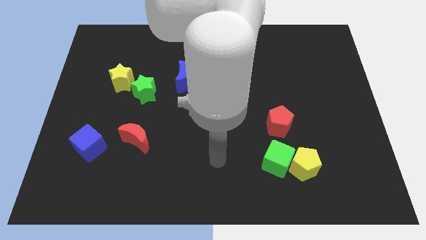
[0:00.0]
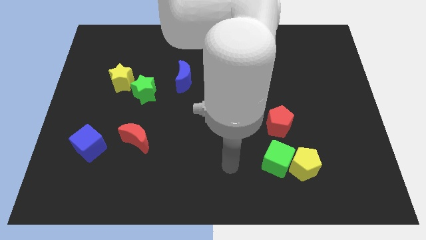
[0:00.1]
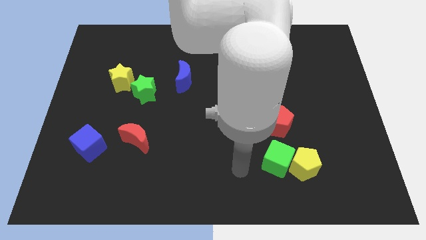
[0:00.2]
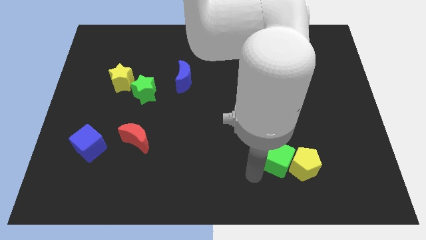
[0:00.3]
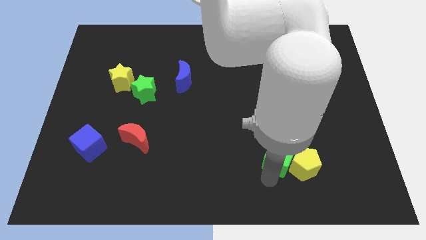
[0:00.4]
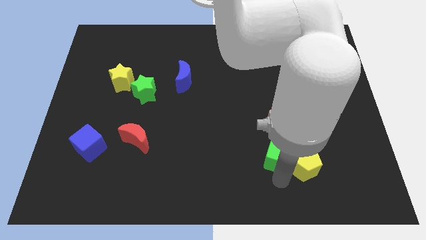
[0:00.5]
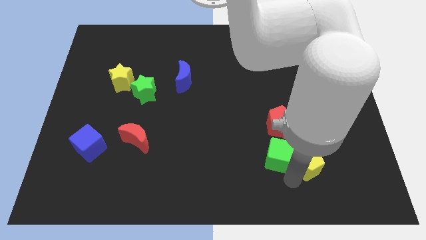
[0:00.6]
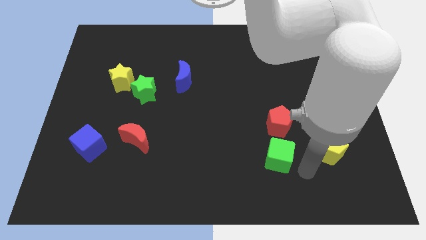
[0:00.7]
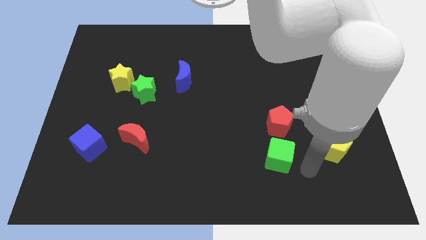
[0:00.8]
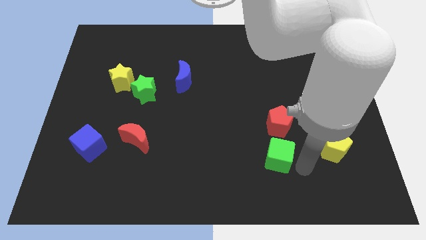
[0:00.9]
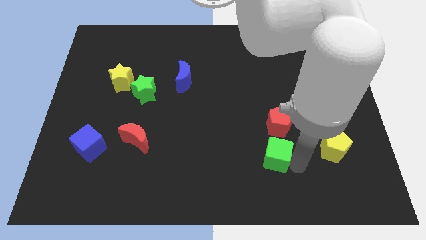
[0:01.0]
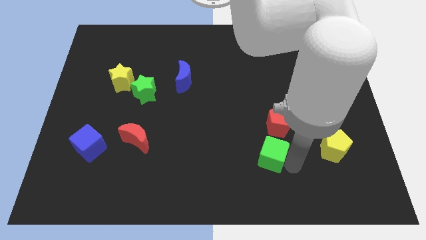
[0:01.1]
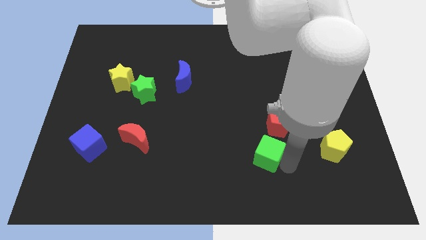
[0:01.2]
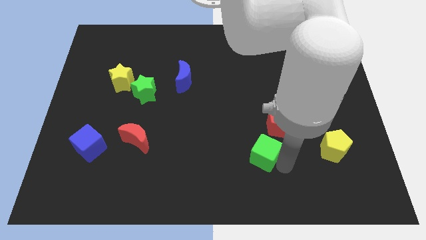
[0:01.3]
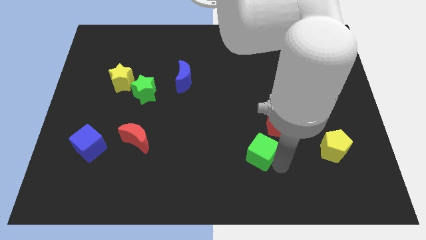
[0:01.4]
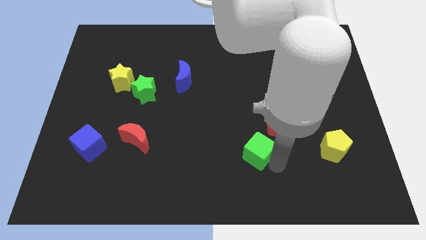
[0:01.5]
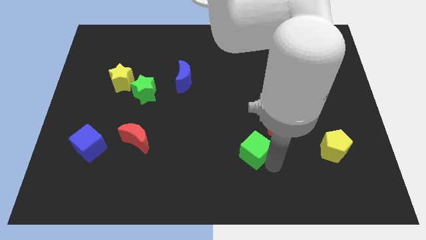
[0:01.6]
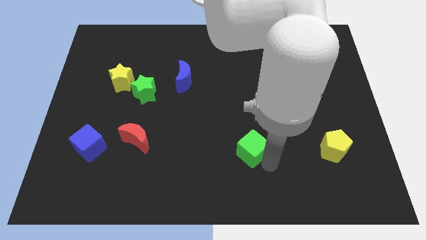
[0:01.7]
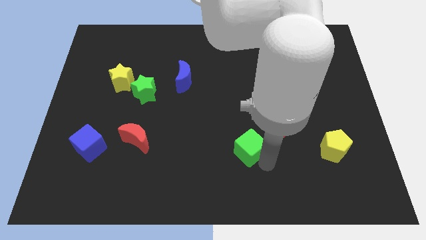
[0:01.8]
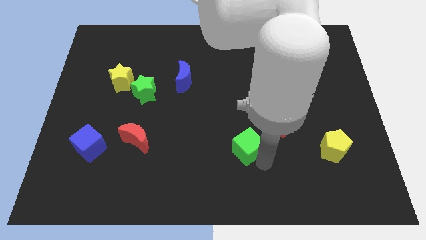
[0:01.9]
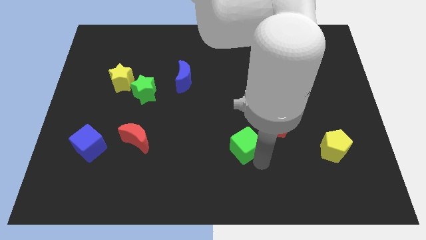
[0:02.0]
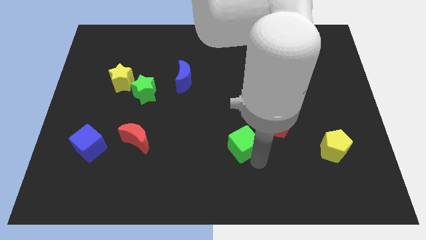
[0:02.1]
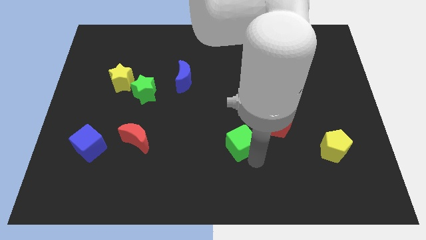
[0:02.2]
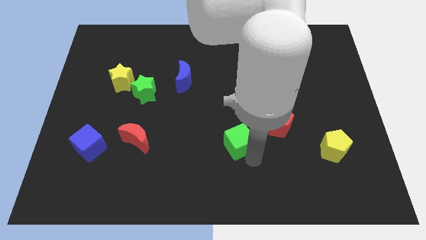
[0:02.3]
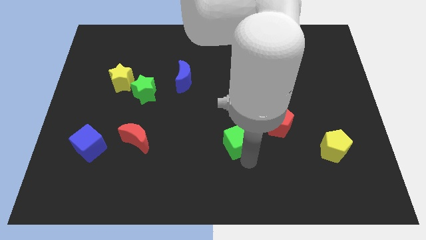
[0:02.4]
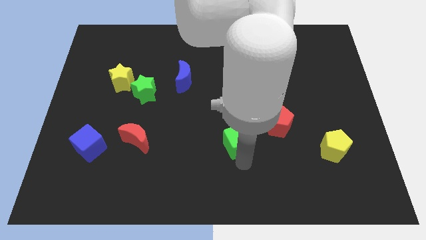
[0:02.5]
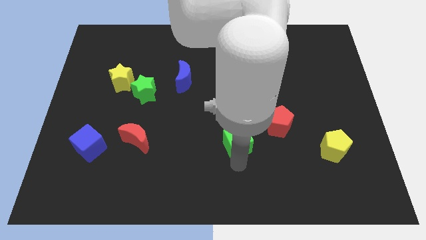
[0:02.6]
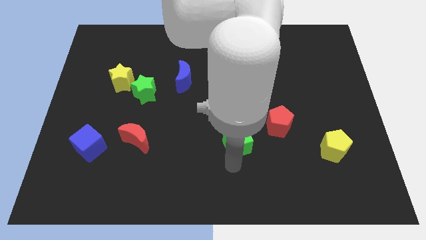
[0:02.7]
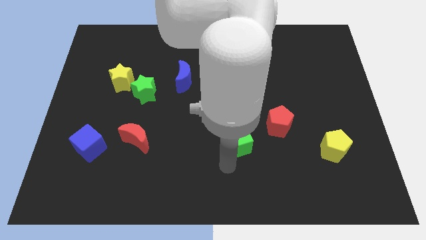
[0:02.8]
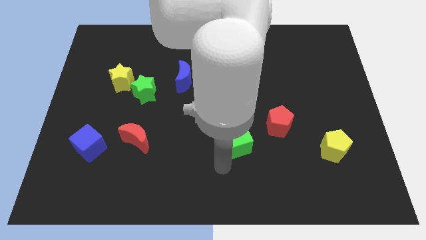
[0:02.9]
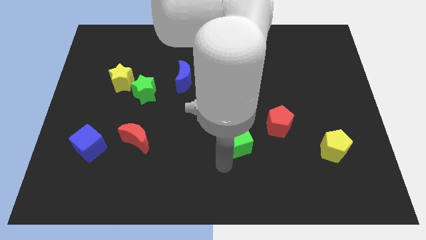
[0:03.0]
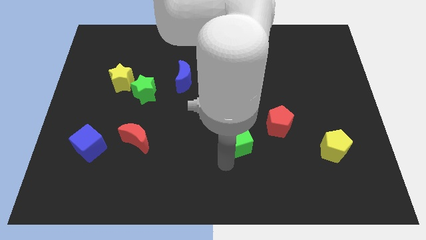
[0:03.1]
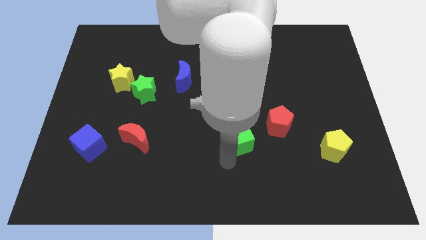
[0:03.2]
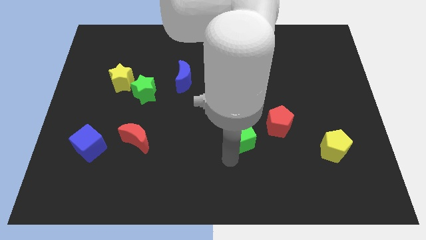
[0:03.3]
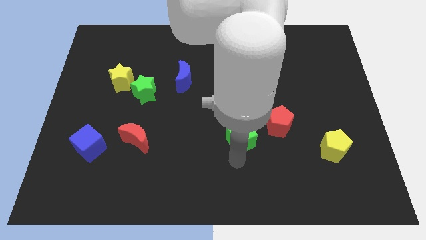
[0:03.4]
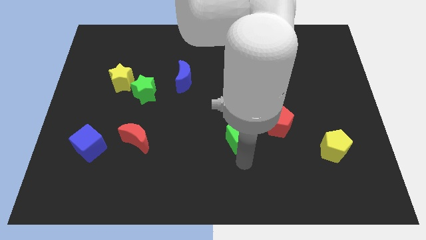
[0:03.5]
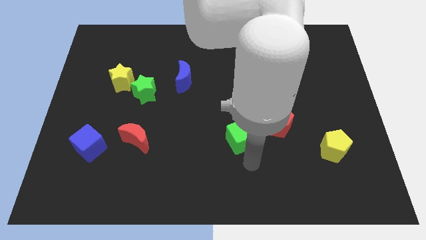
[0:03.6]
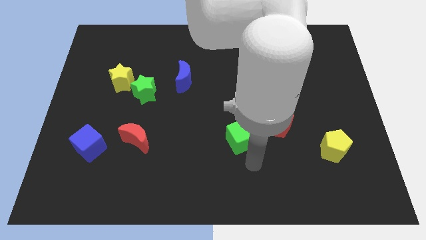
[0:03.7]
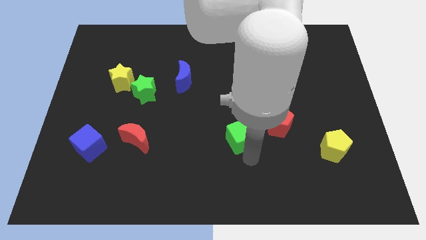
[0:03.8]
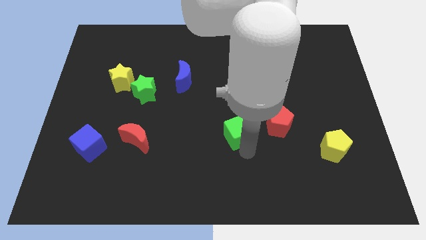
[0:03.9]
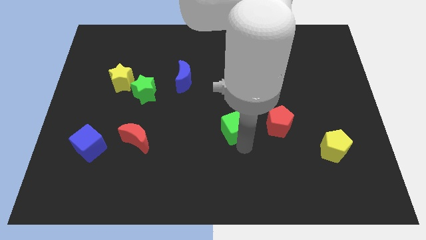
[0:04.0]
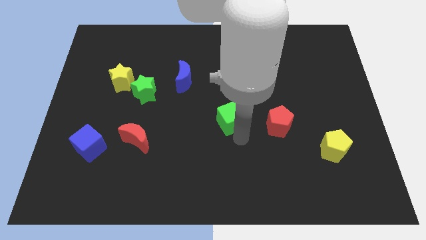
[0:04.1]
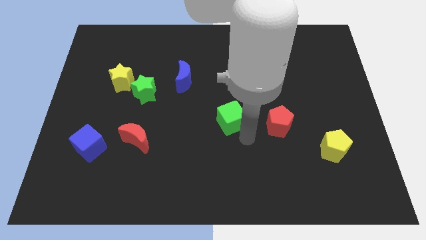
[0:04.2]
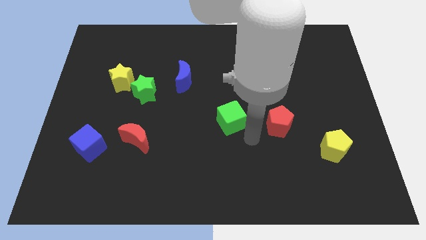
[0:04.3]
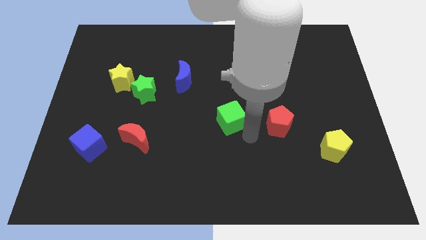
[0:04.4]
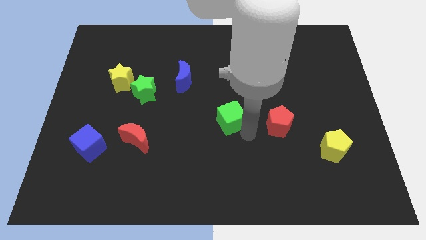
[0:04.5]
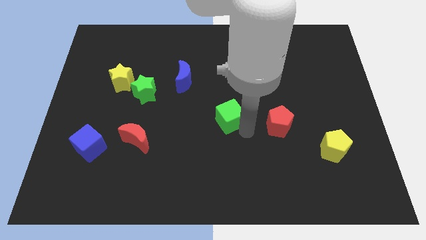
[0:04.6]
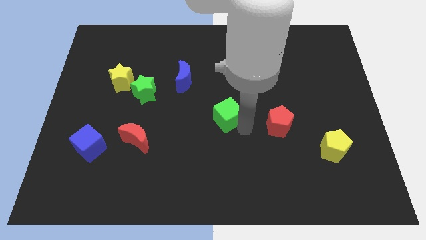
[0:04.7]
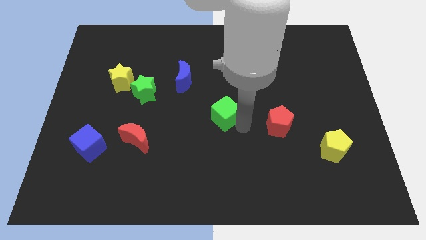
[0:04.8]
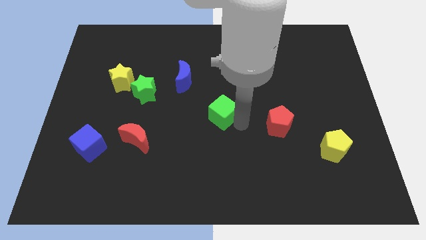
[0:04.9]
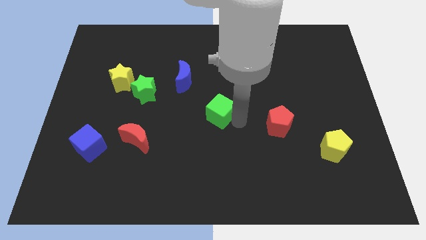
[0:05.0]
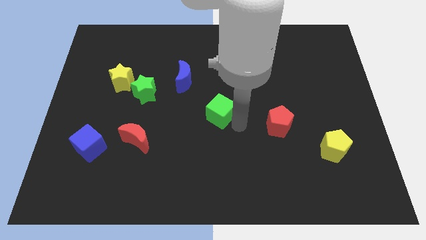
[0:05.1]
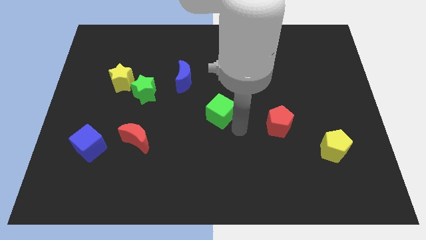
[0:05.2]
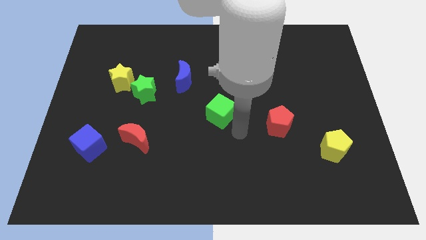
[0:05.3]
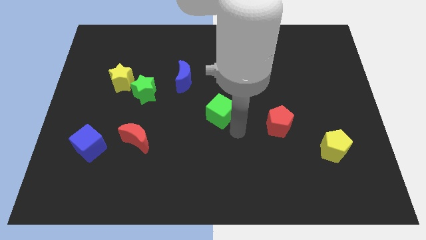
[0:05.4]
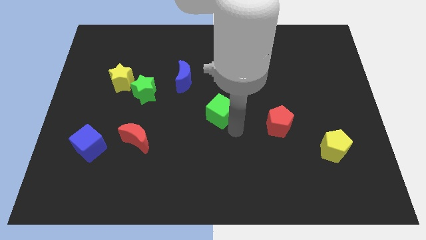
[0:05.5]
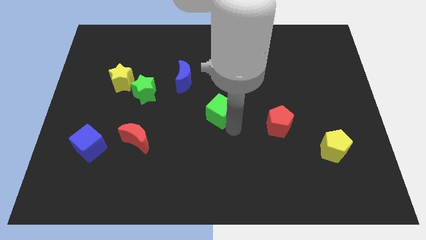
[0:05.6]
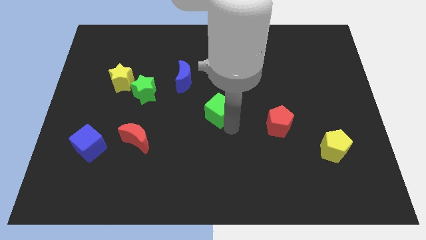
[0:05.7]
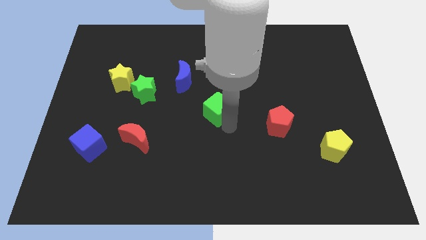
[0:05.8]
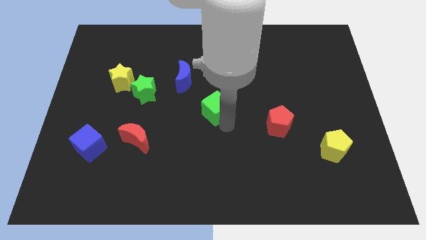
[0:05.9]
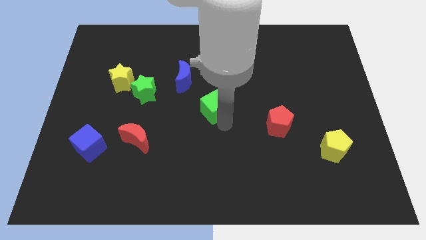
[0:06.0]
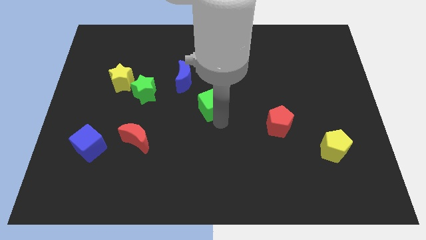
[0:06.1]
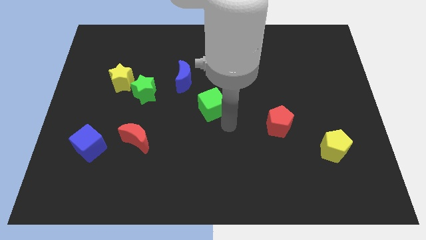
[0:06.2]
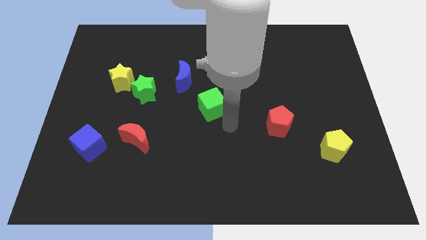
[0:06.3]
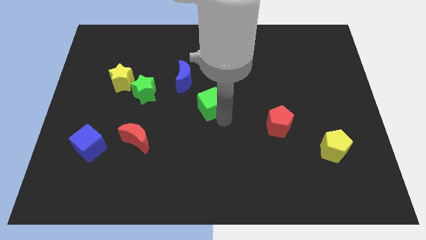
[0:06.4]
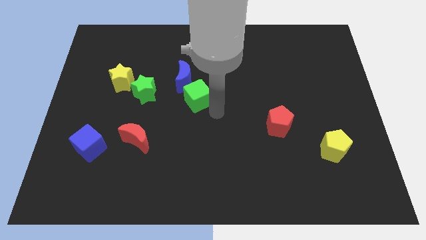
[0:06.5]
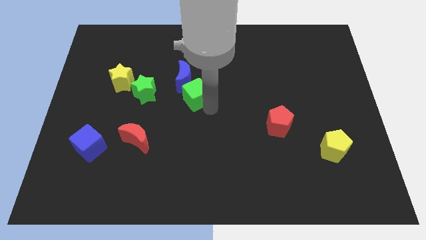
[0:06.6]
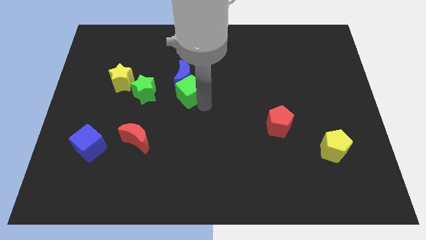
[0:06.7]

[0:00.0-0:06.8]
move the green cube close to the blue moon
